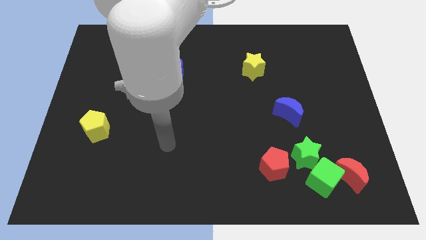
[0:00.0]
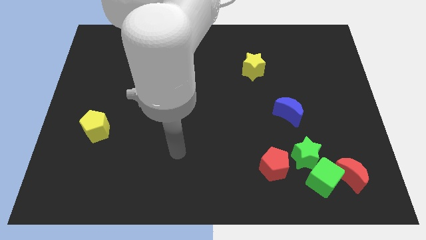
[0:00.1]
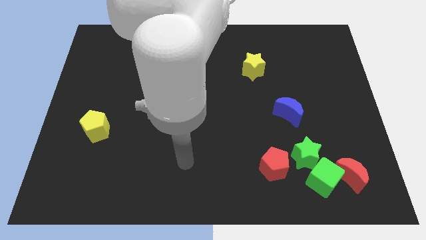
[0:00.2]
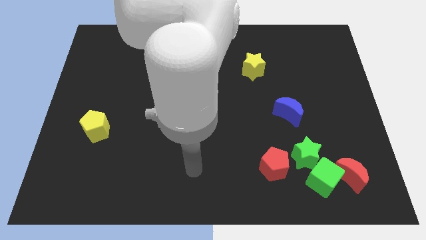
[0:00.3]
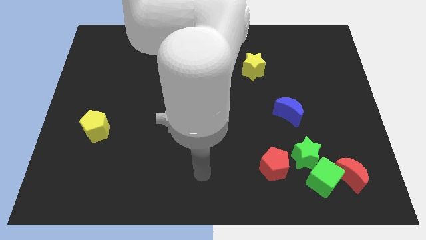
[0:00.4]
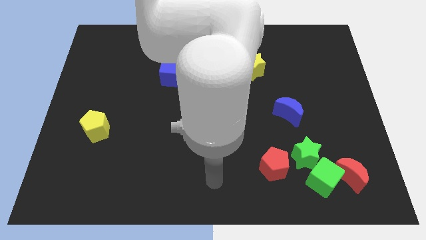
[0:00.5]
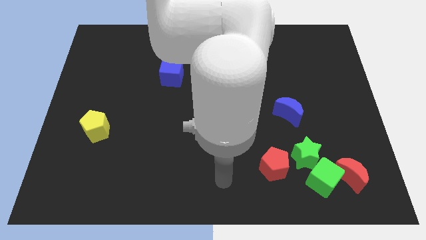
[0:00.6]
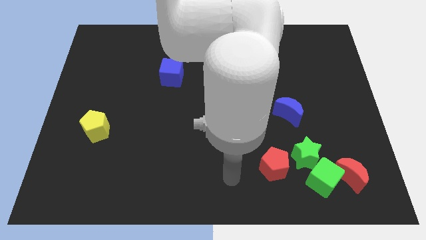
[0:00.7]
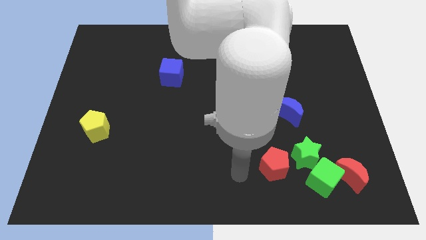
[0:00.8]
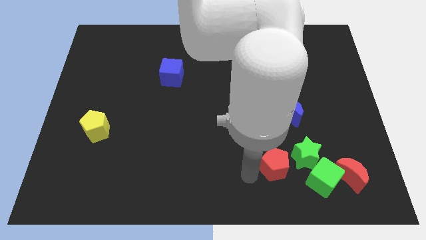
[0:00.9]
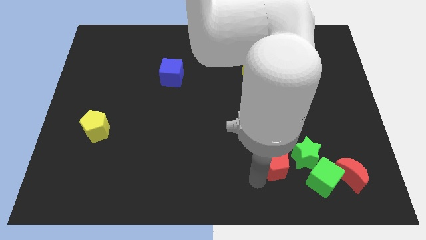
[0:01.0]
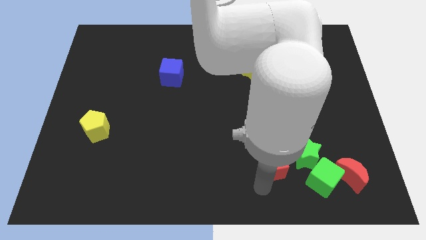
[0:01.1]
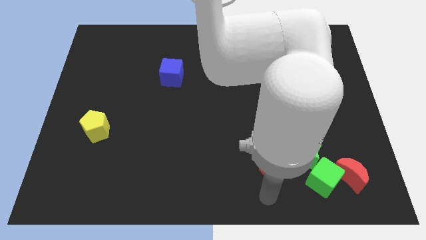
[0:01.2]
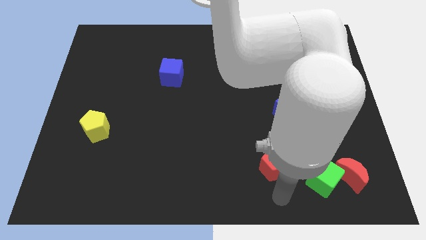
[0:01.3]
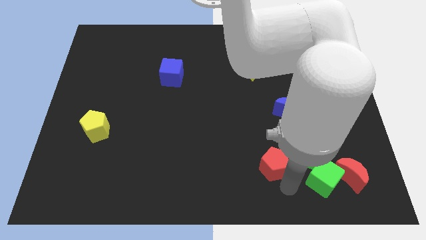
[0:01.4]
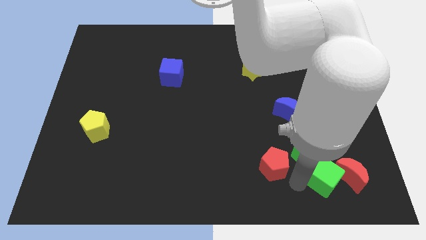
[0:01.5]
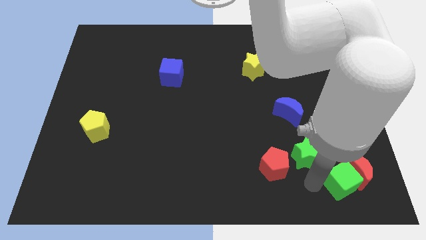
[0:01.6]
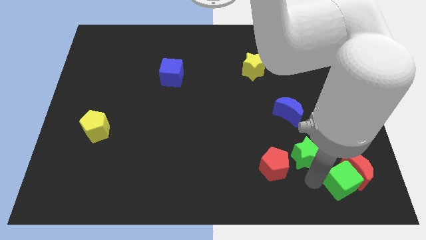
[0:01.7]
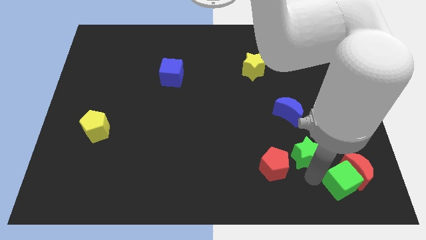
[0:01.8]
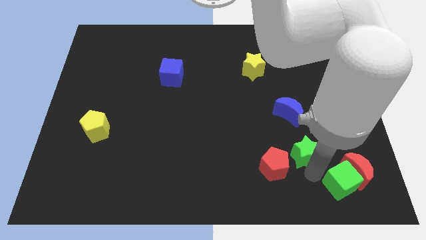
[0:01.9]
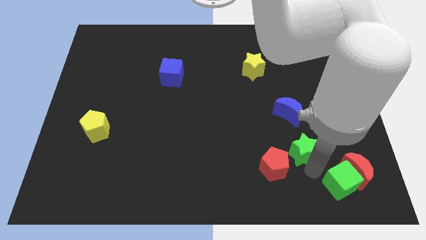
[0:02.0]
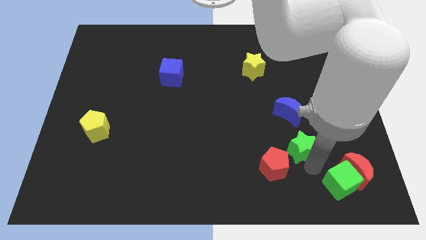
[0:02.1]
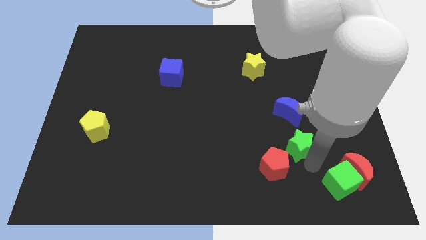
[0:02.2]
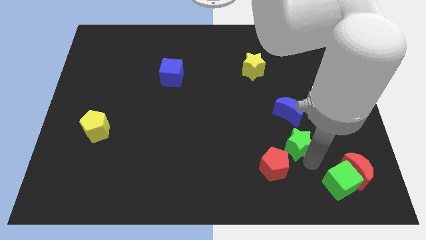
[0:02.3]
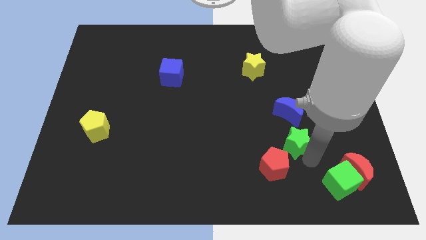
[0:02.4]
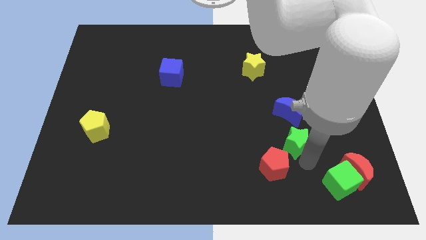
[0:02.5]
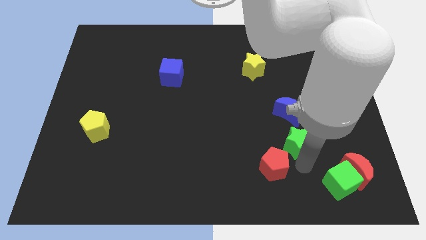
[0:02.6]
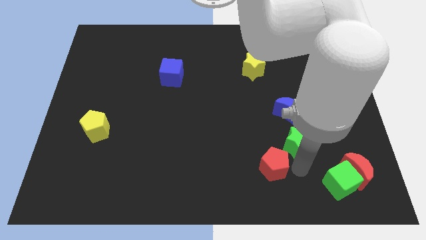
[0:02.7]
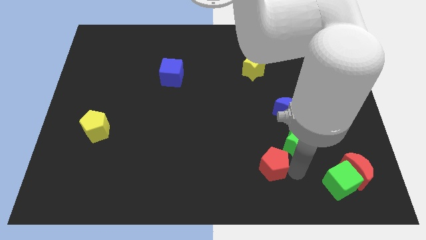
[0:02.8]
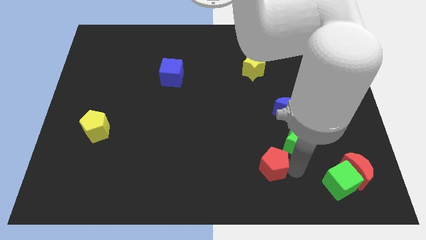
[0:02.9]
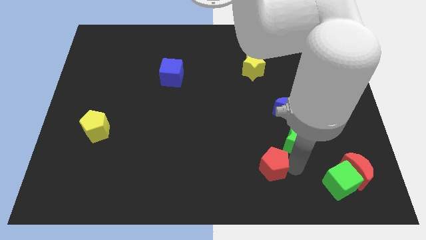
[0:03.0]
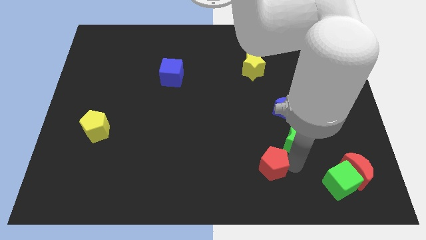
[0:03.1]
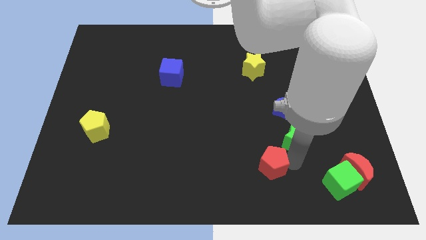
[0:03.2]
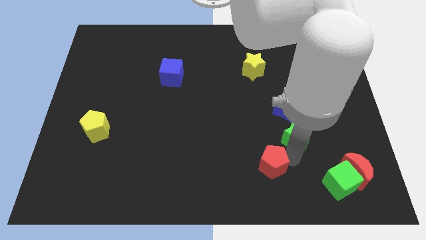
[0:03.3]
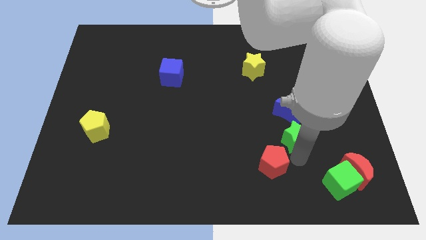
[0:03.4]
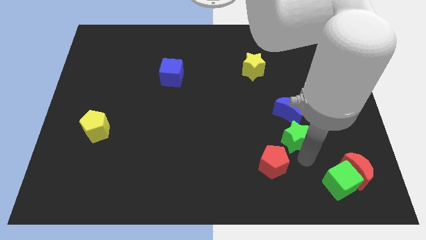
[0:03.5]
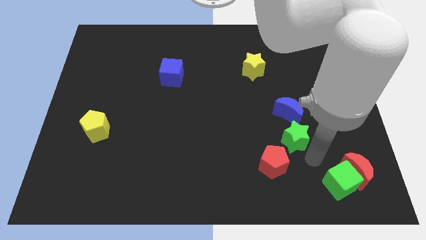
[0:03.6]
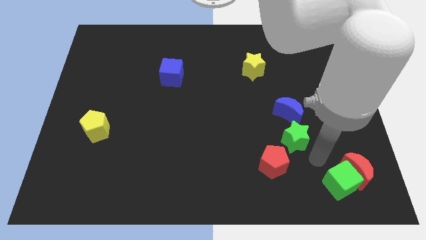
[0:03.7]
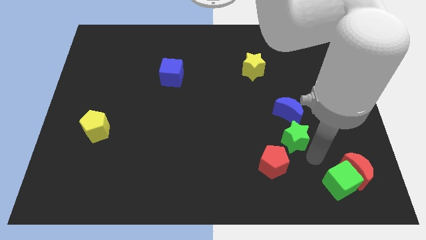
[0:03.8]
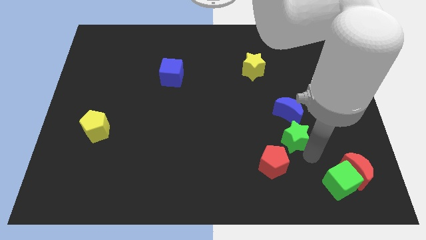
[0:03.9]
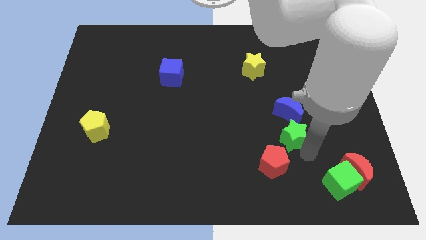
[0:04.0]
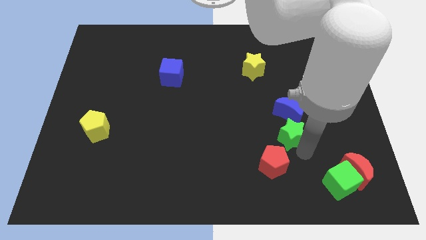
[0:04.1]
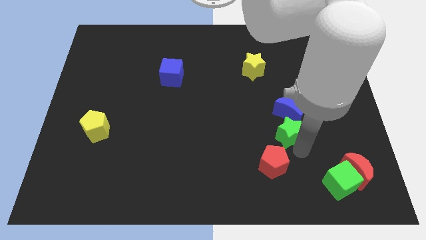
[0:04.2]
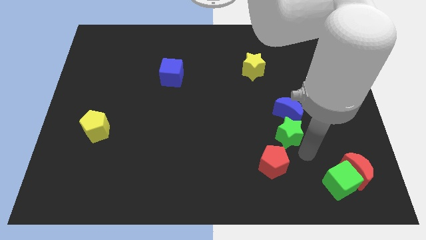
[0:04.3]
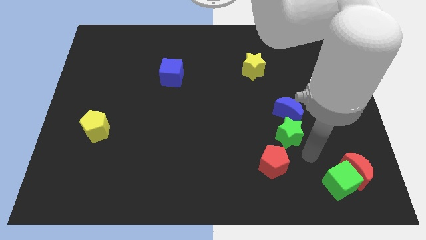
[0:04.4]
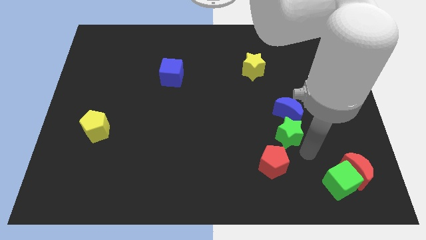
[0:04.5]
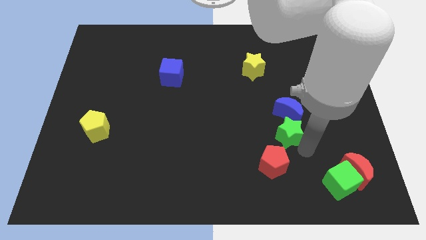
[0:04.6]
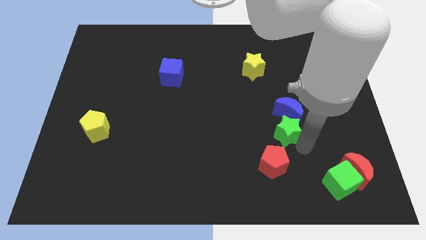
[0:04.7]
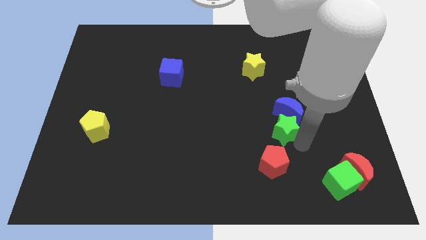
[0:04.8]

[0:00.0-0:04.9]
slightly slide the green star upwards and left

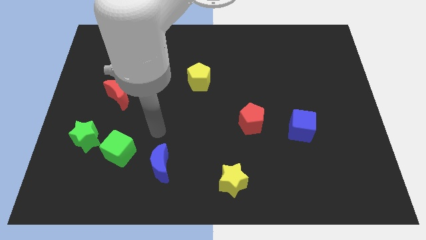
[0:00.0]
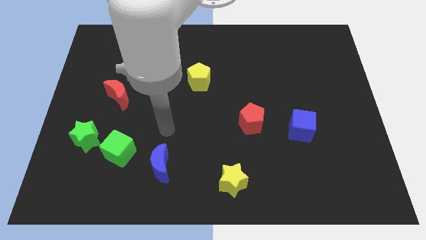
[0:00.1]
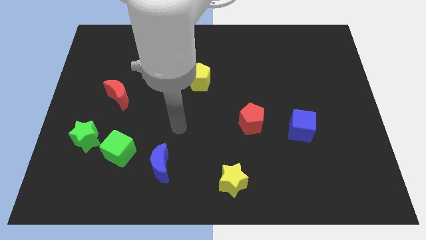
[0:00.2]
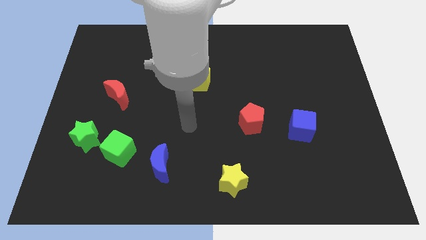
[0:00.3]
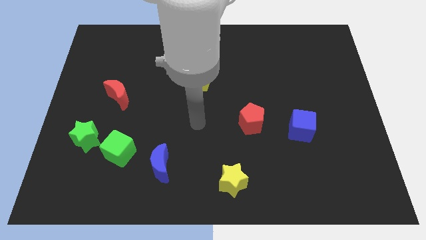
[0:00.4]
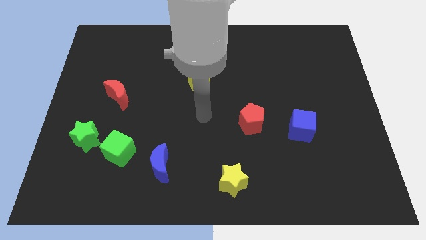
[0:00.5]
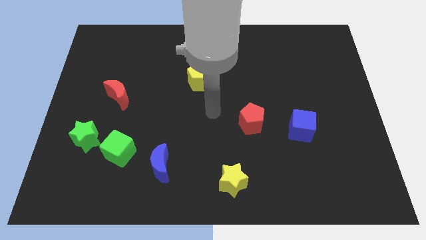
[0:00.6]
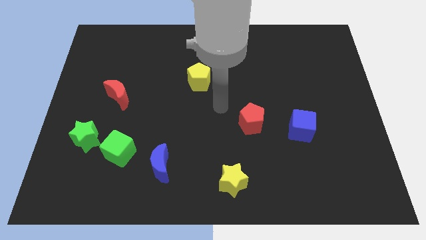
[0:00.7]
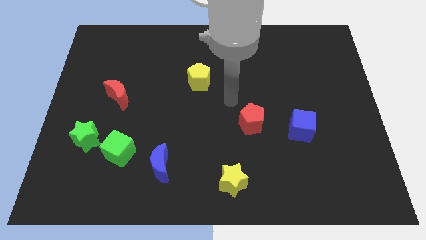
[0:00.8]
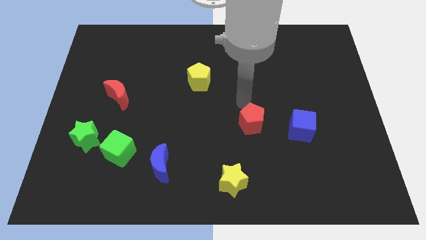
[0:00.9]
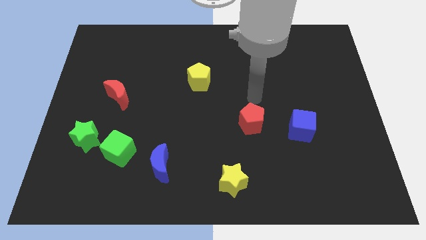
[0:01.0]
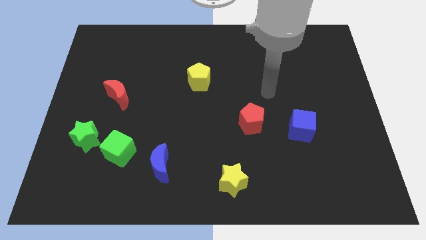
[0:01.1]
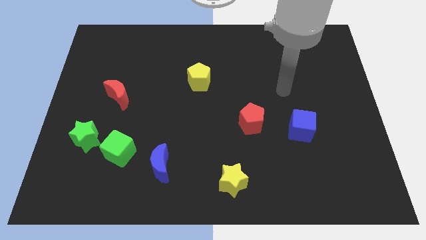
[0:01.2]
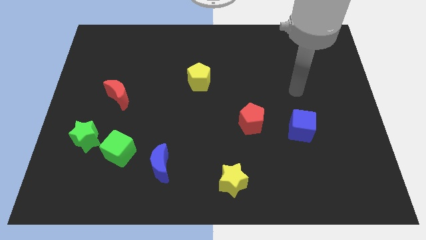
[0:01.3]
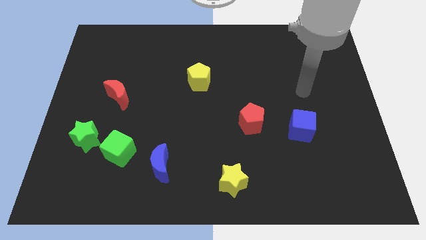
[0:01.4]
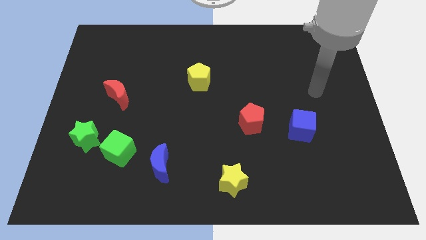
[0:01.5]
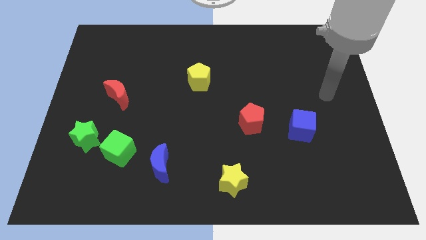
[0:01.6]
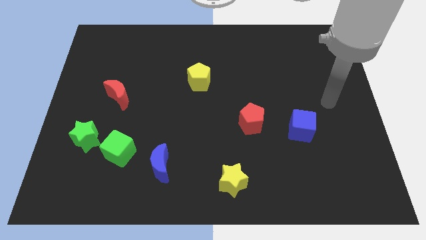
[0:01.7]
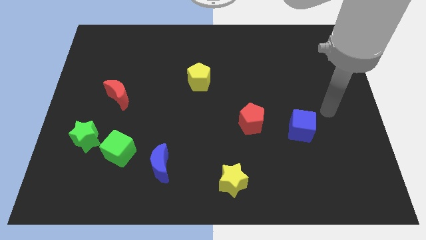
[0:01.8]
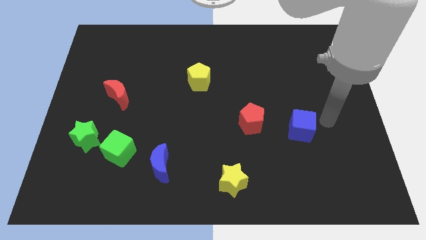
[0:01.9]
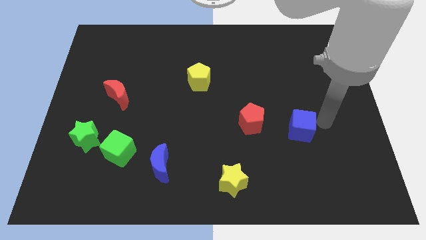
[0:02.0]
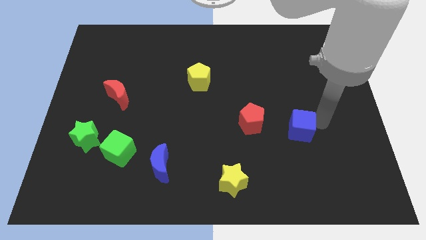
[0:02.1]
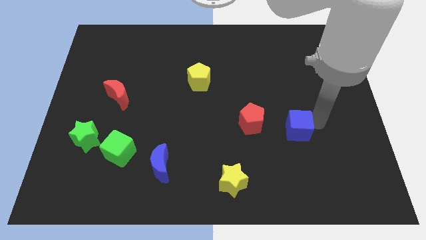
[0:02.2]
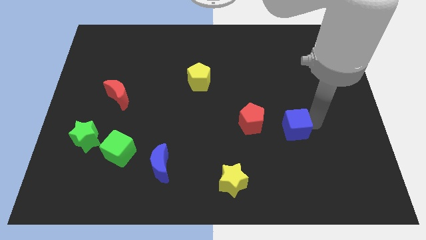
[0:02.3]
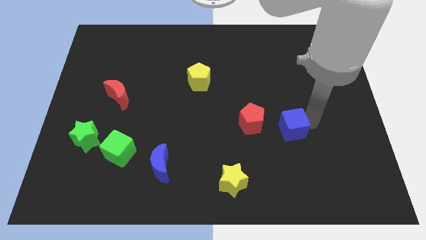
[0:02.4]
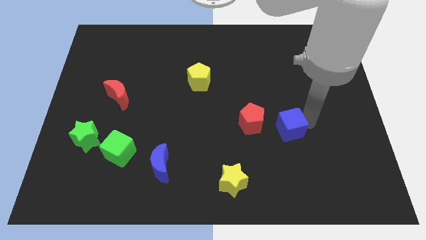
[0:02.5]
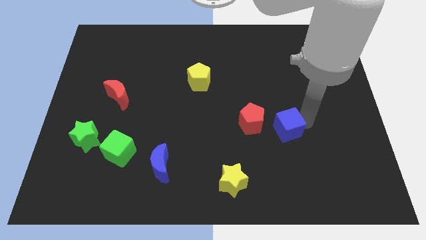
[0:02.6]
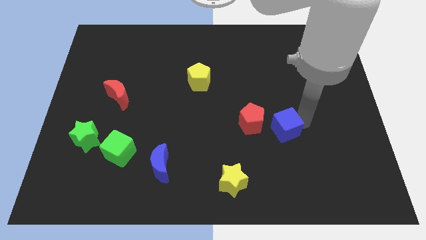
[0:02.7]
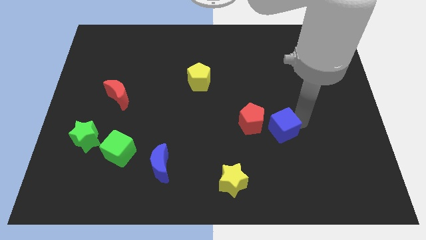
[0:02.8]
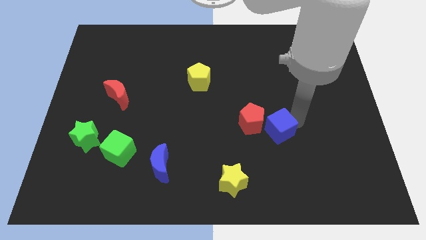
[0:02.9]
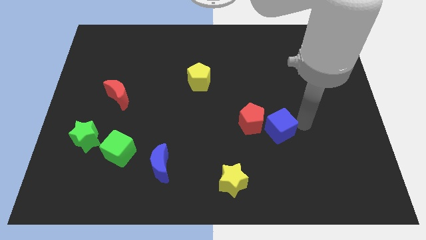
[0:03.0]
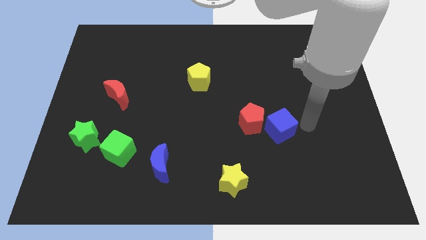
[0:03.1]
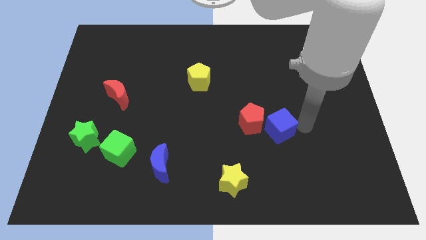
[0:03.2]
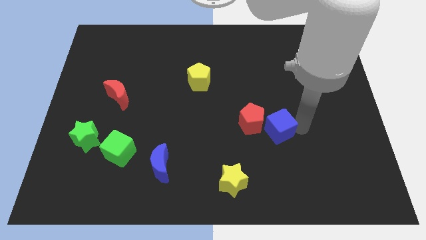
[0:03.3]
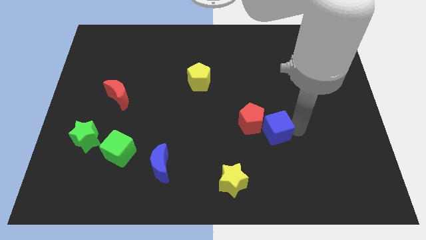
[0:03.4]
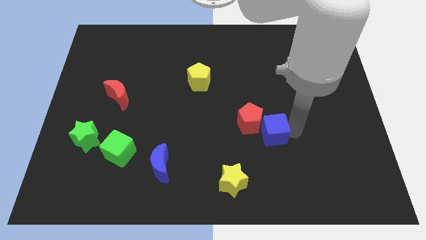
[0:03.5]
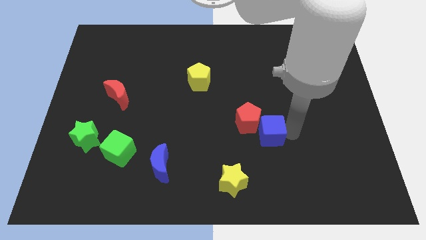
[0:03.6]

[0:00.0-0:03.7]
slightly move the blue cube left
